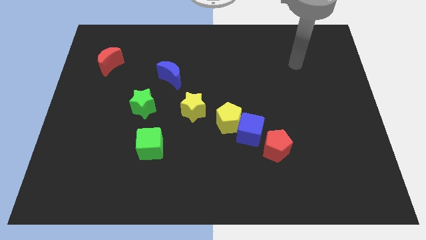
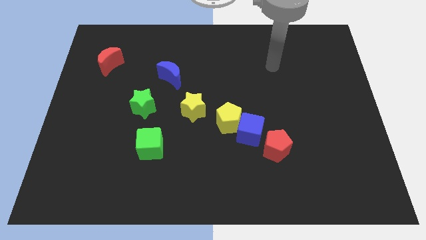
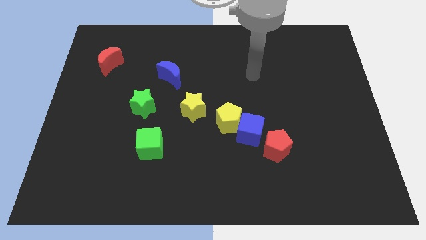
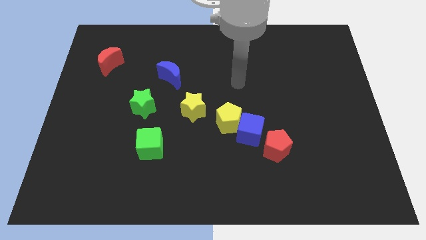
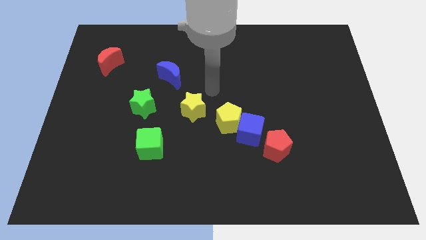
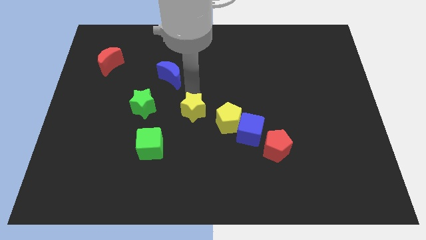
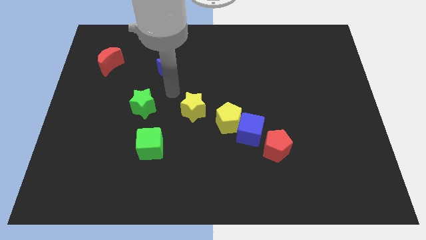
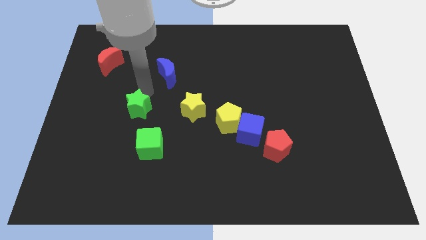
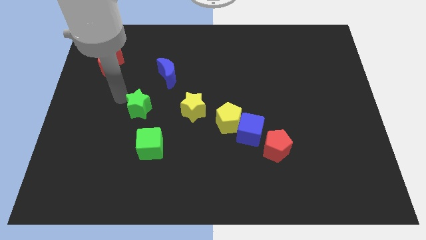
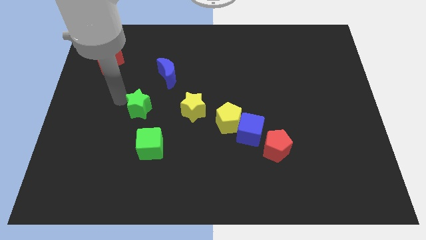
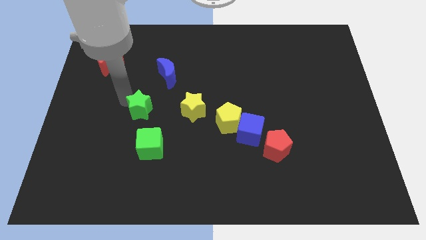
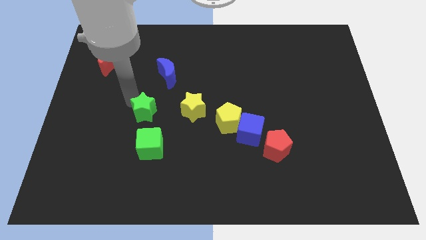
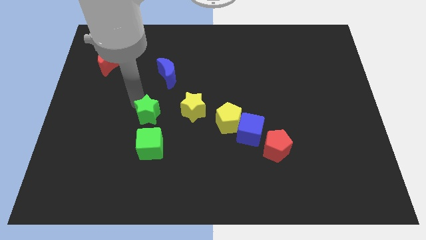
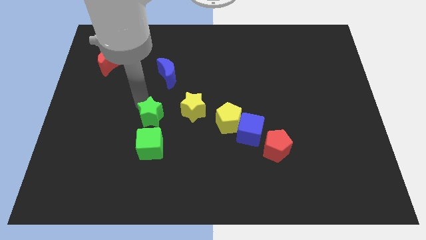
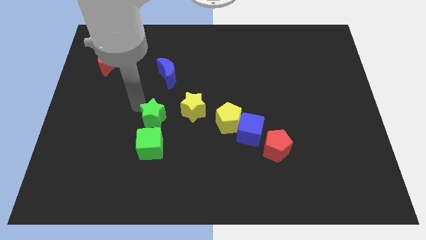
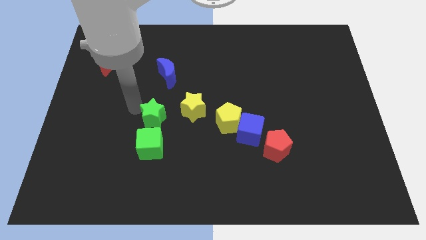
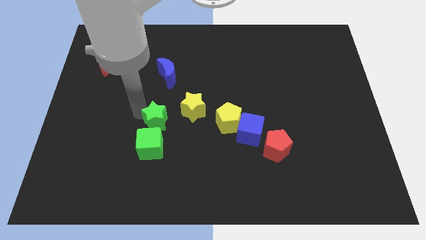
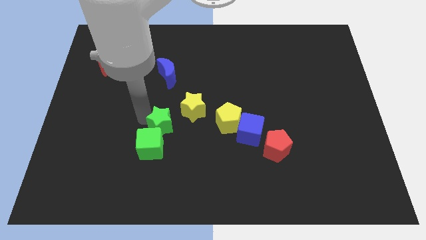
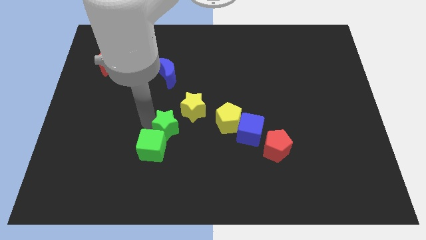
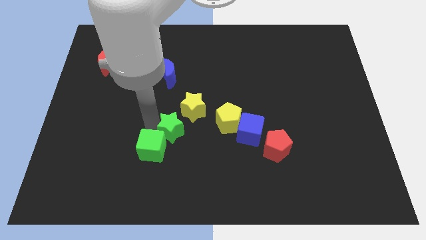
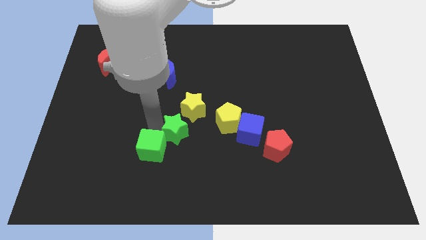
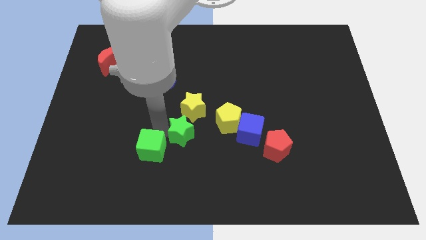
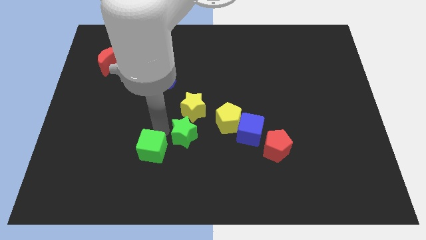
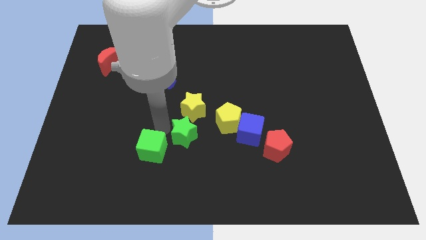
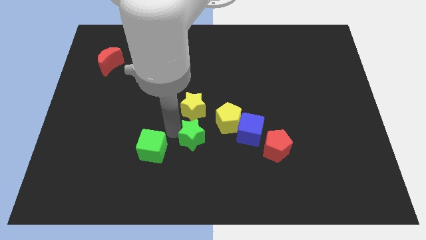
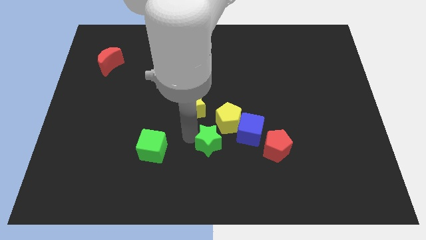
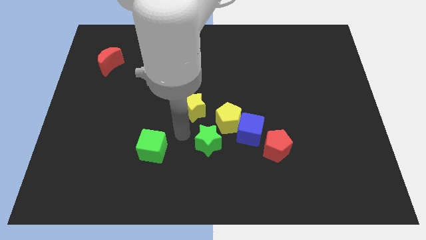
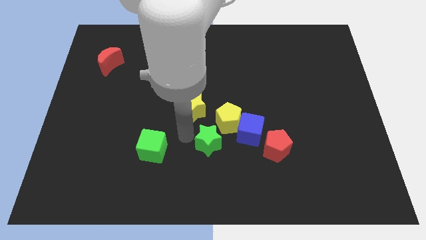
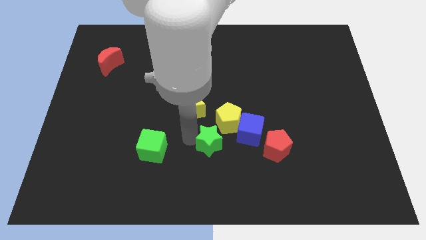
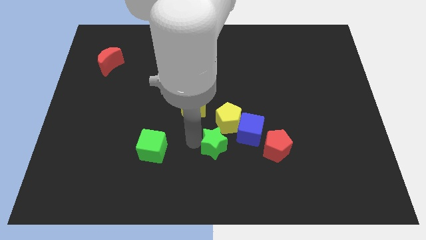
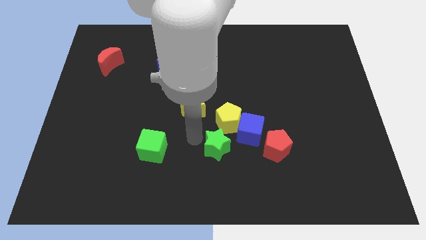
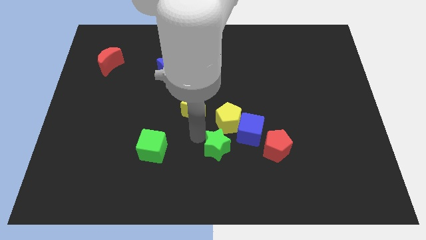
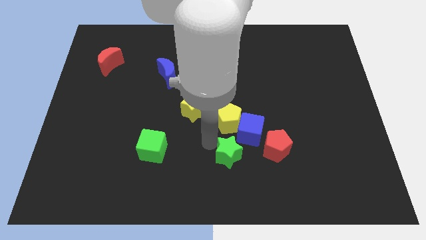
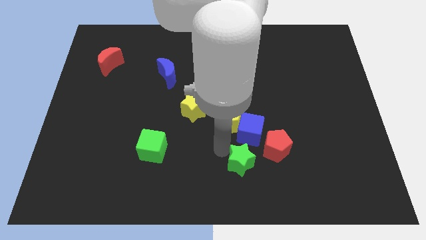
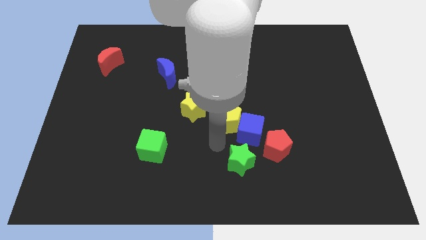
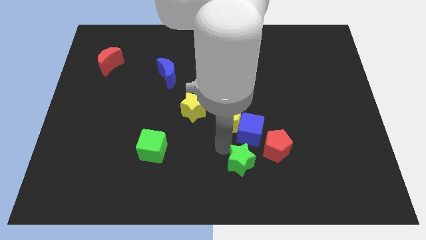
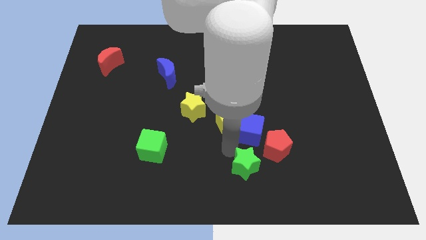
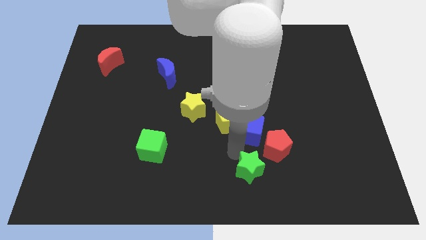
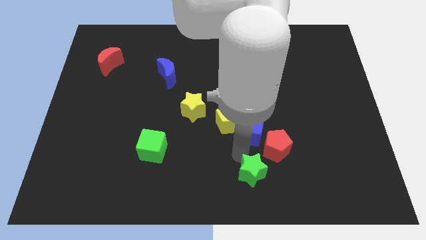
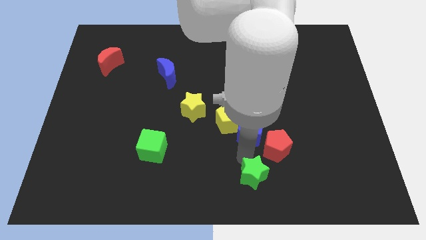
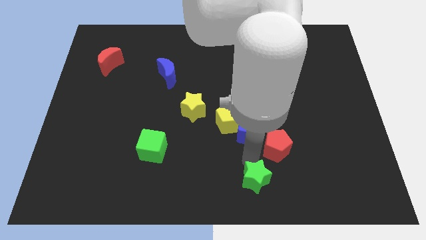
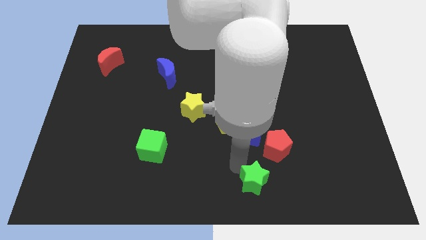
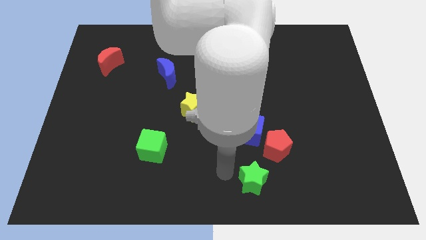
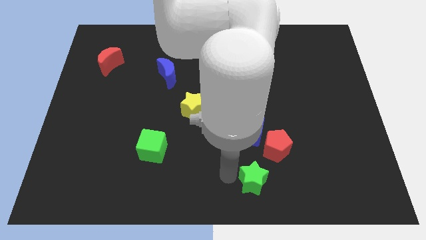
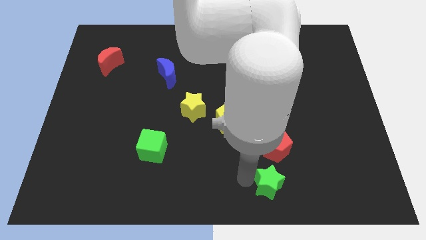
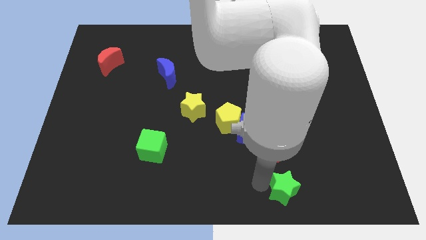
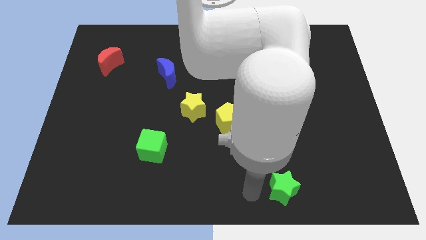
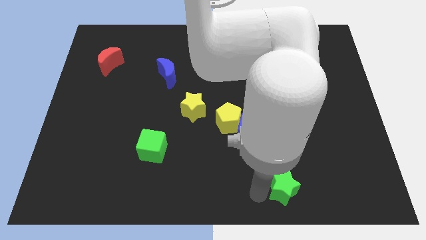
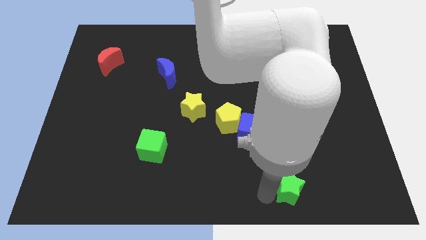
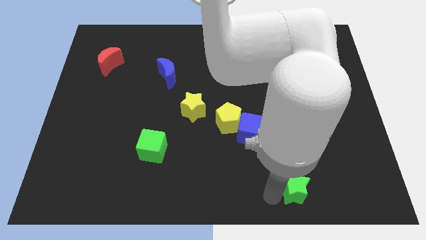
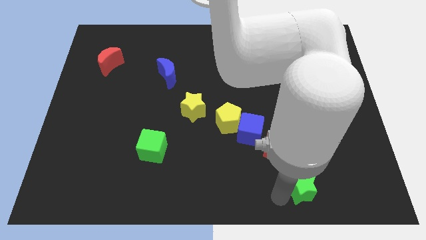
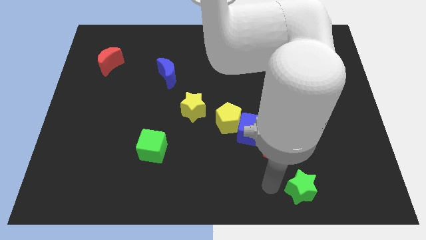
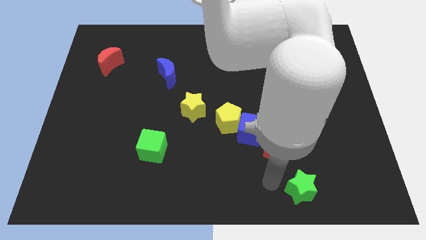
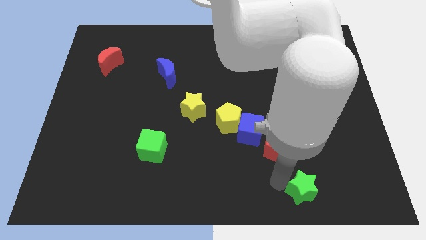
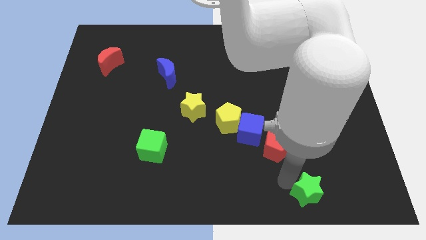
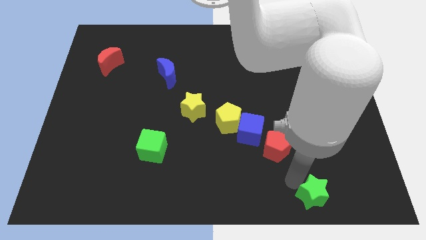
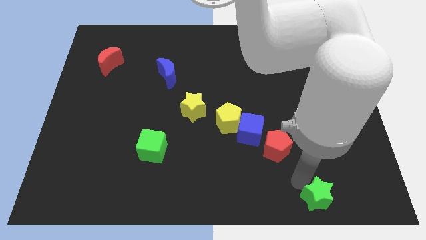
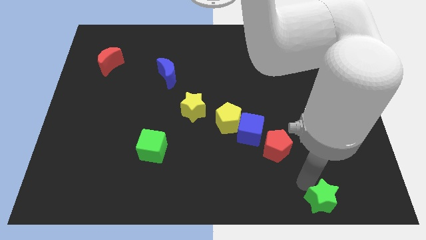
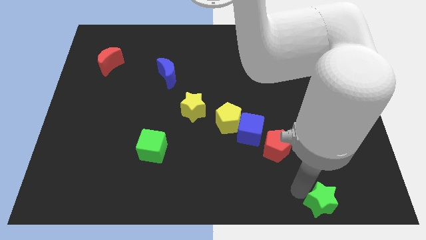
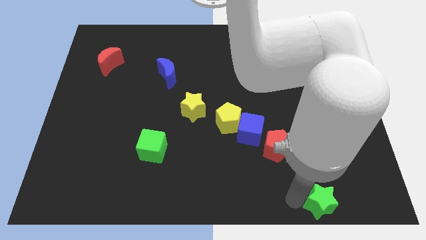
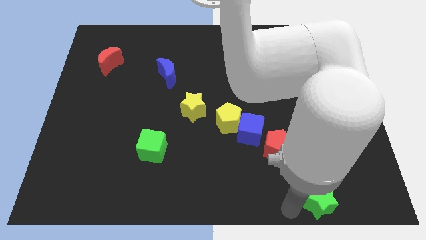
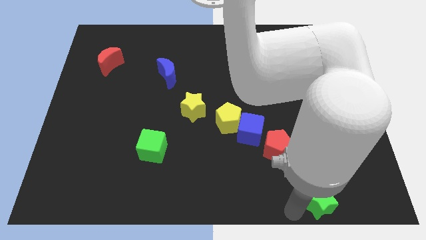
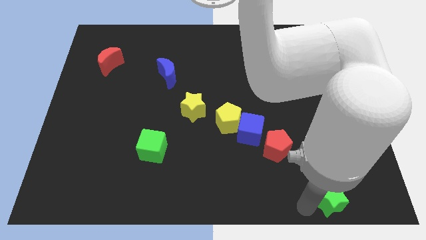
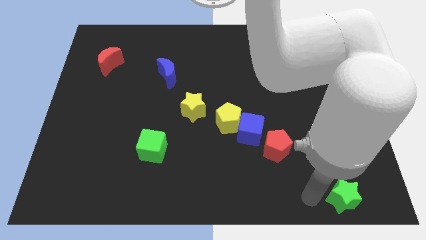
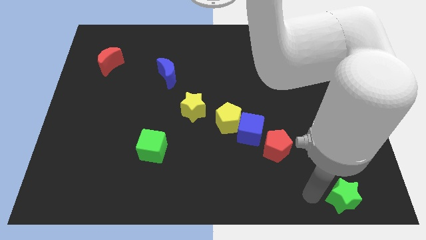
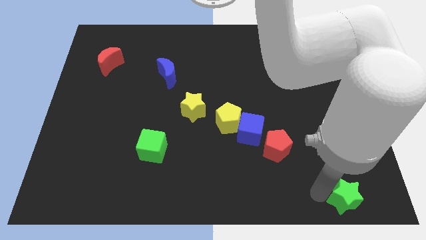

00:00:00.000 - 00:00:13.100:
slide the green star to the bottom right
